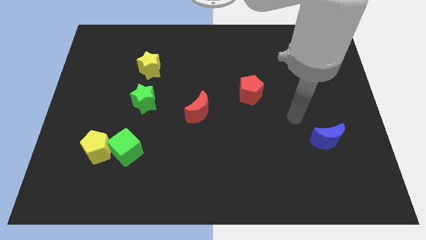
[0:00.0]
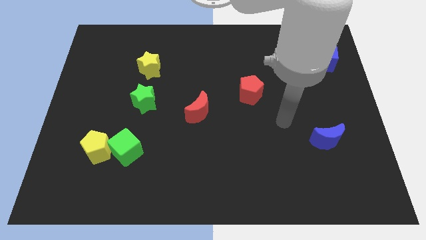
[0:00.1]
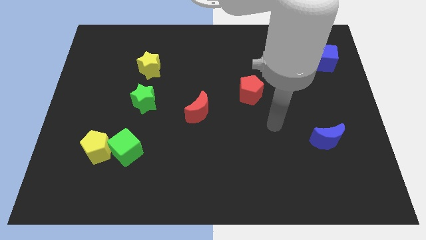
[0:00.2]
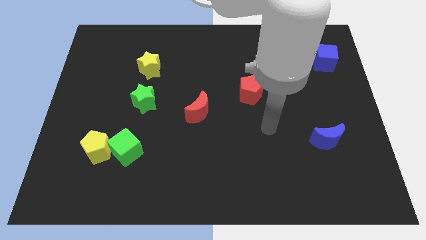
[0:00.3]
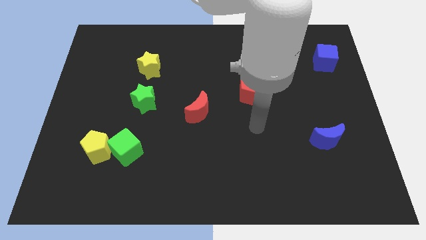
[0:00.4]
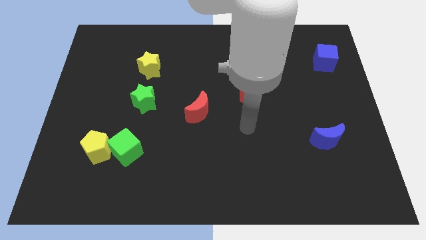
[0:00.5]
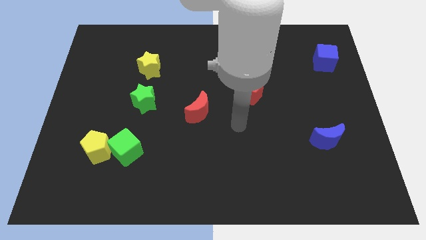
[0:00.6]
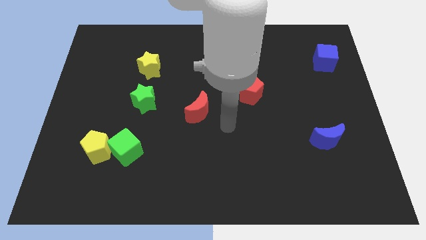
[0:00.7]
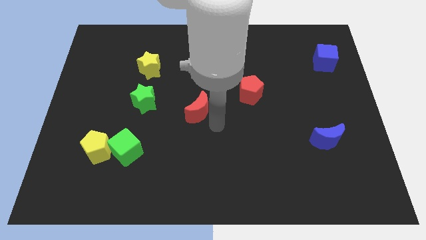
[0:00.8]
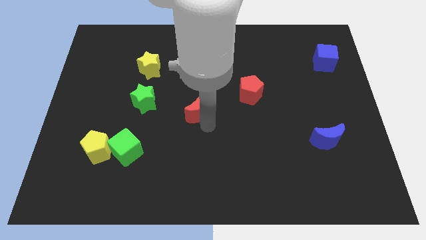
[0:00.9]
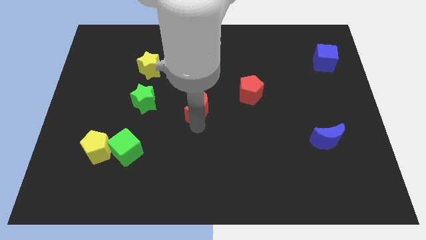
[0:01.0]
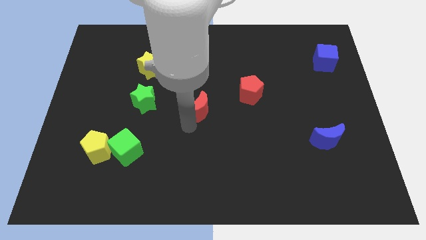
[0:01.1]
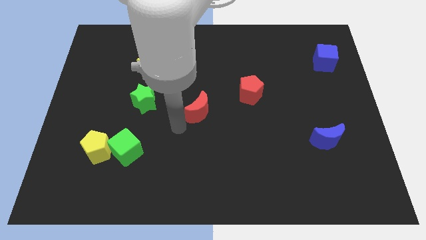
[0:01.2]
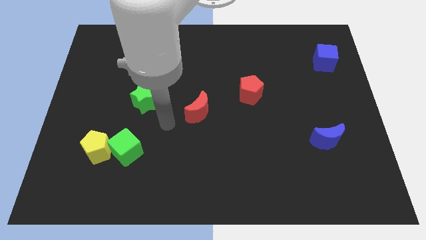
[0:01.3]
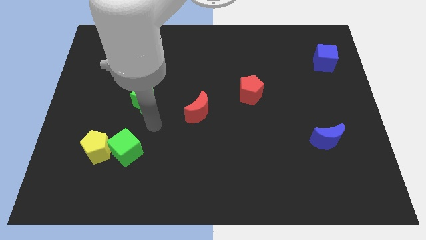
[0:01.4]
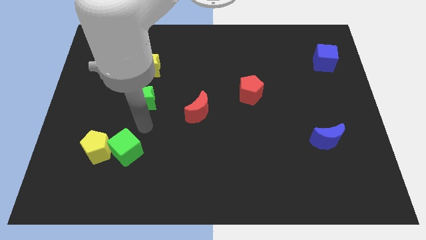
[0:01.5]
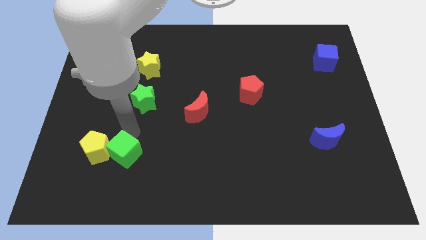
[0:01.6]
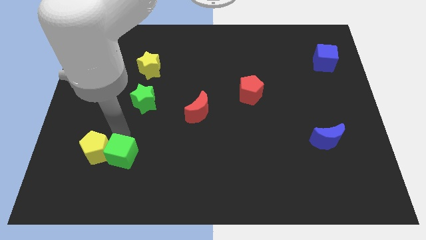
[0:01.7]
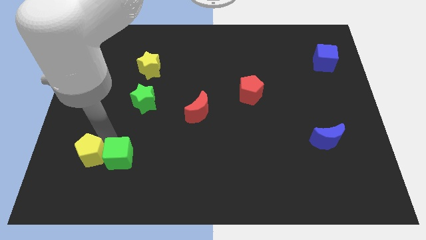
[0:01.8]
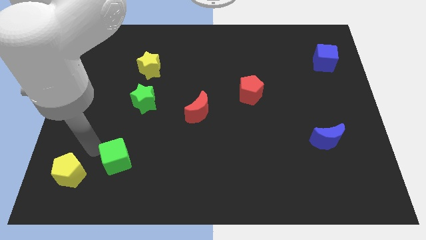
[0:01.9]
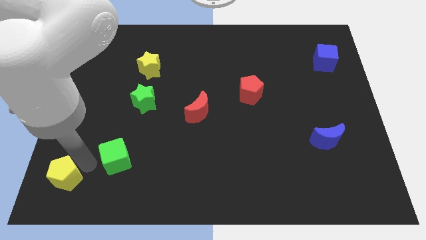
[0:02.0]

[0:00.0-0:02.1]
separate the green cube from the yellow pentagon

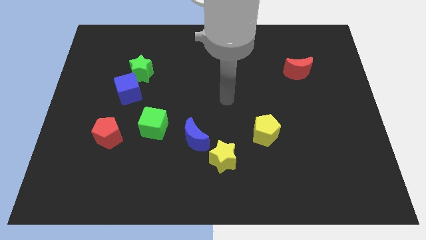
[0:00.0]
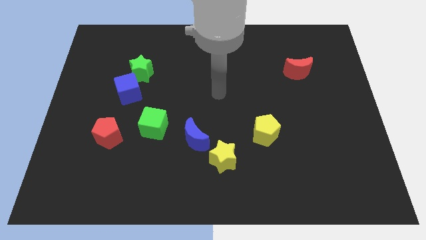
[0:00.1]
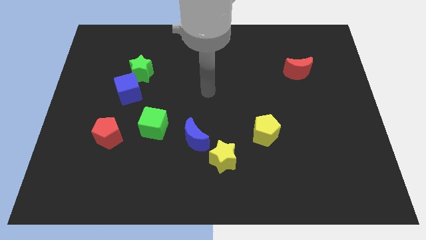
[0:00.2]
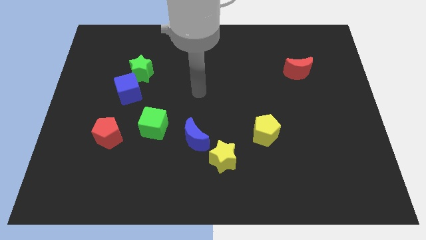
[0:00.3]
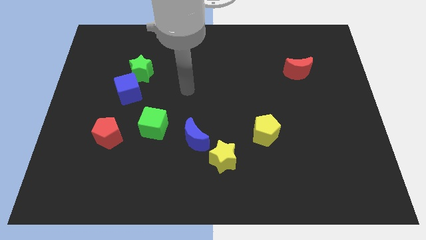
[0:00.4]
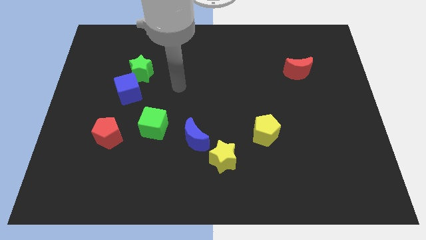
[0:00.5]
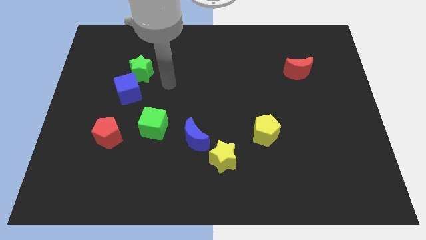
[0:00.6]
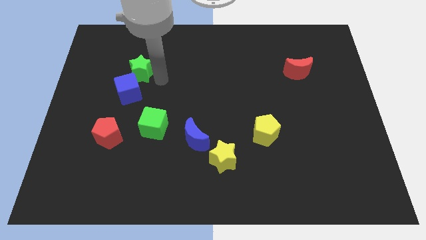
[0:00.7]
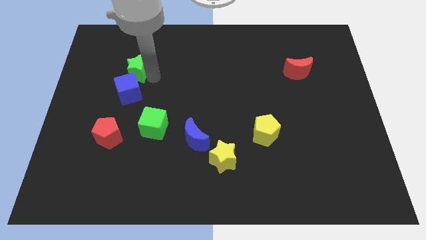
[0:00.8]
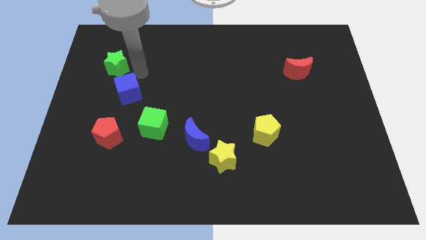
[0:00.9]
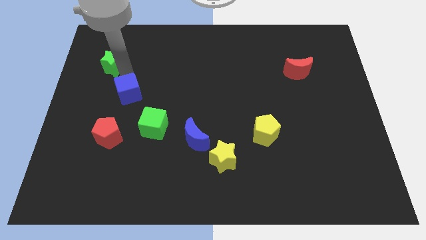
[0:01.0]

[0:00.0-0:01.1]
move the blue cube away from the green star

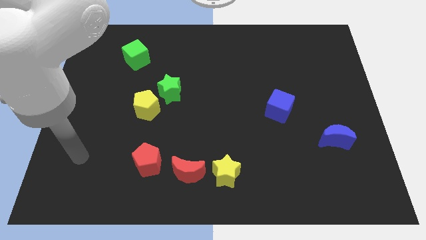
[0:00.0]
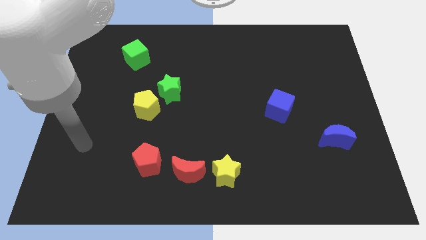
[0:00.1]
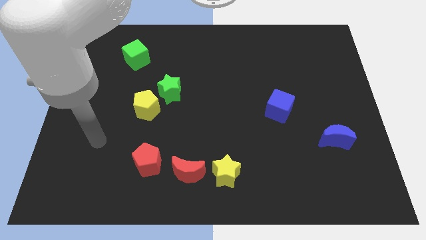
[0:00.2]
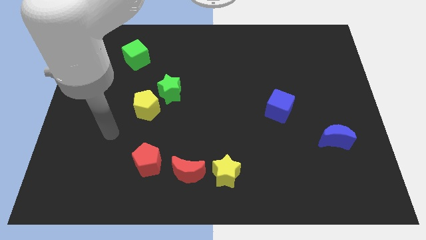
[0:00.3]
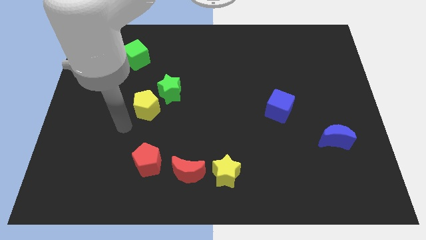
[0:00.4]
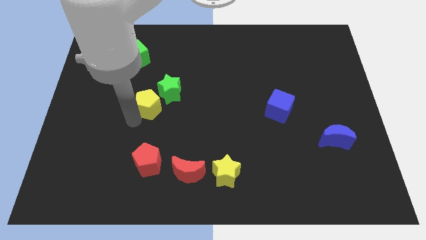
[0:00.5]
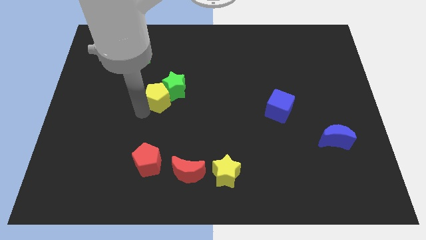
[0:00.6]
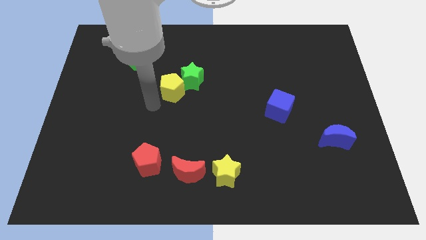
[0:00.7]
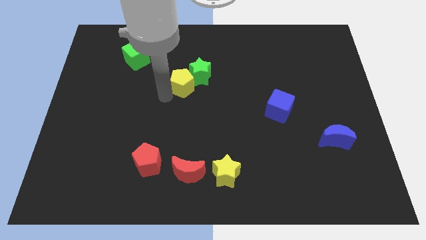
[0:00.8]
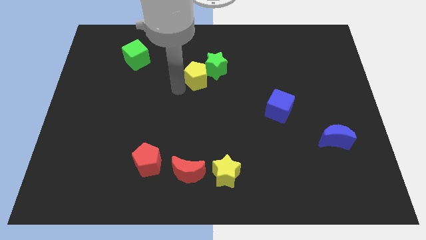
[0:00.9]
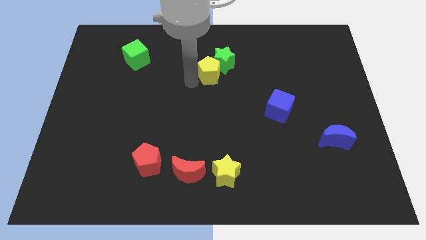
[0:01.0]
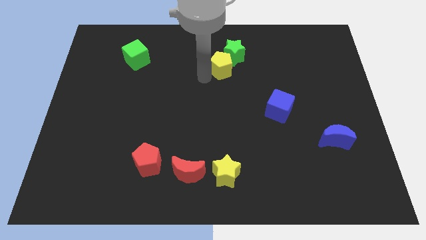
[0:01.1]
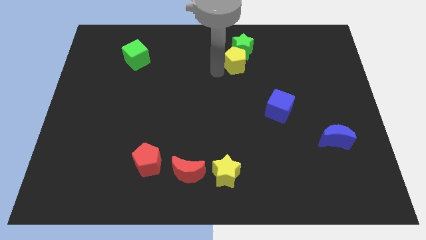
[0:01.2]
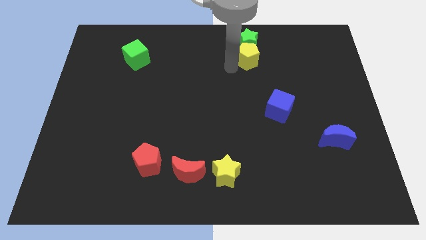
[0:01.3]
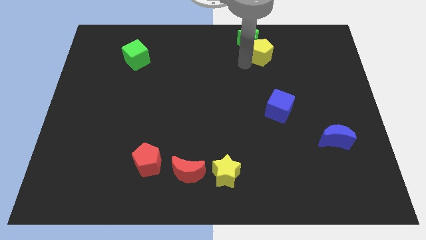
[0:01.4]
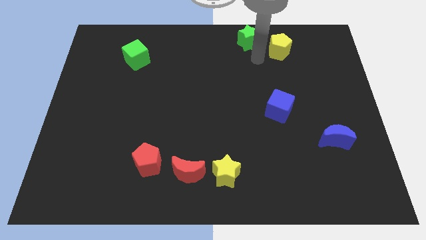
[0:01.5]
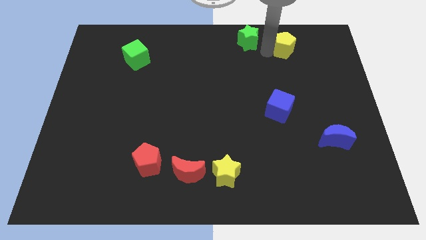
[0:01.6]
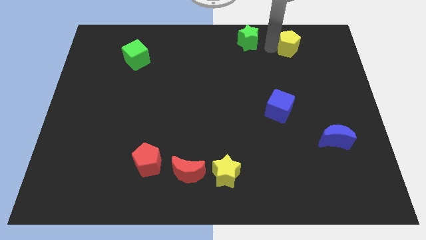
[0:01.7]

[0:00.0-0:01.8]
move the green star away from the yellow pentagon

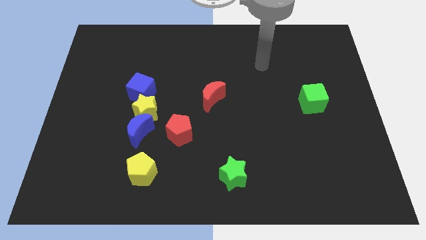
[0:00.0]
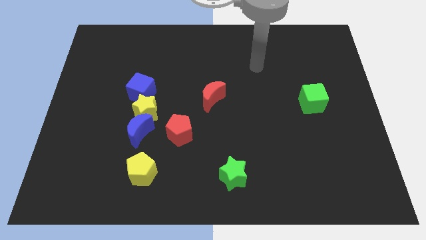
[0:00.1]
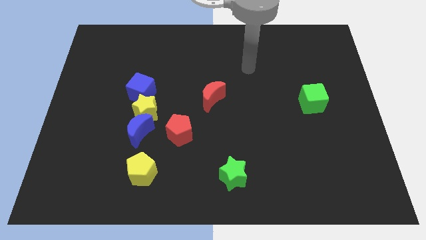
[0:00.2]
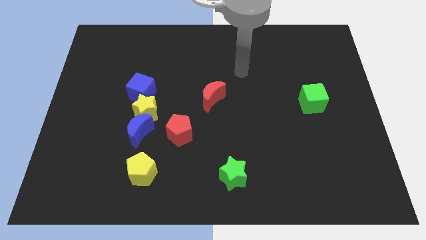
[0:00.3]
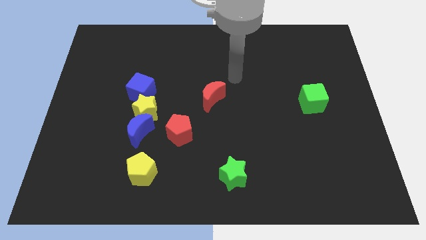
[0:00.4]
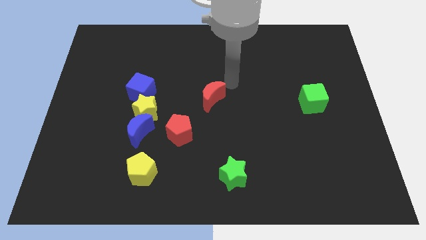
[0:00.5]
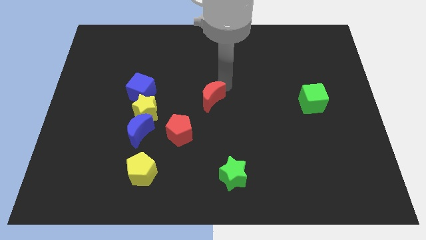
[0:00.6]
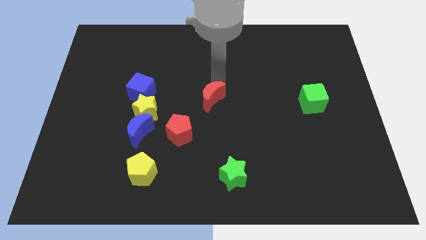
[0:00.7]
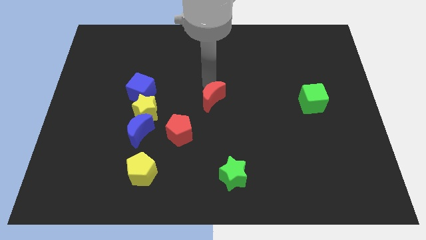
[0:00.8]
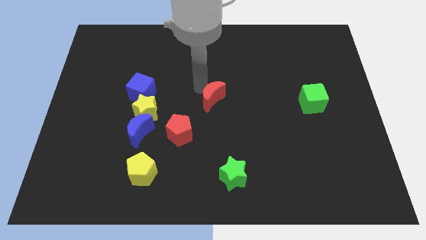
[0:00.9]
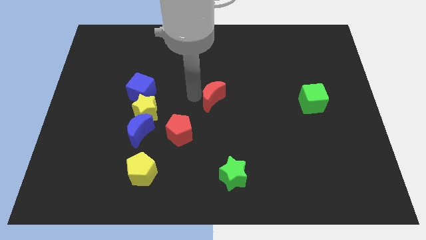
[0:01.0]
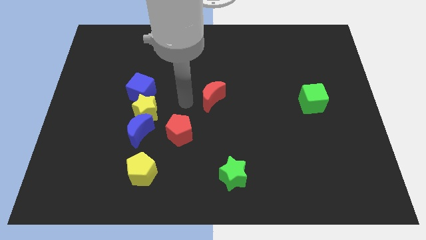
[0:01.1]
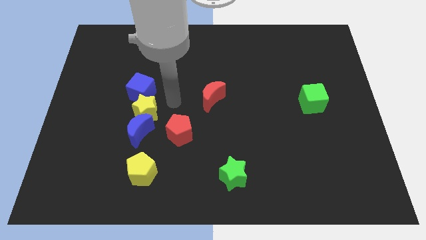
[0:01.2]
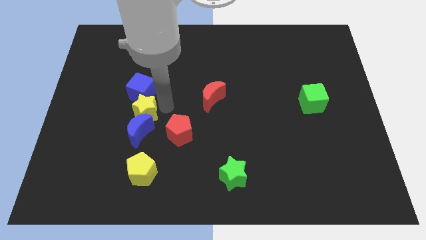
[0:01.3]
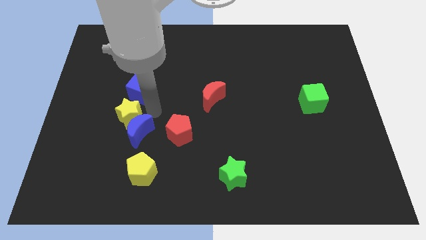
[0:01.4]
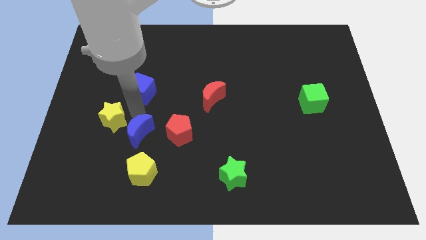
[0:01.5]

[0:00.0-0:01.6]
separate the blue cube from the yellow star

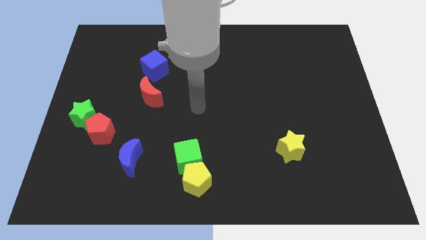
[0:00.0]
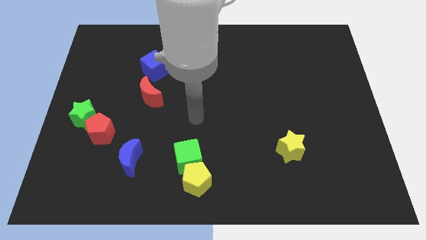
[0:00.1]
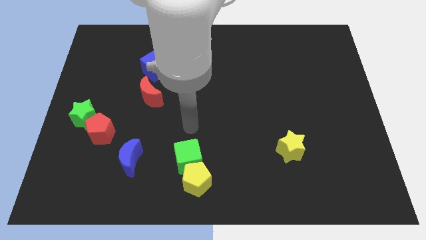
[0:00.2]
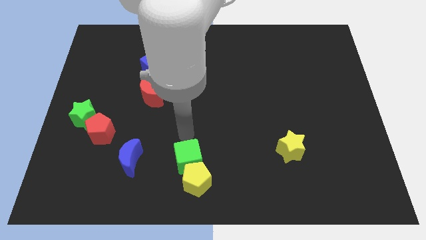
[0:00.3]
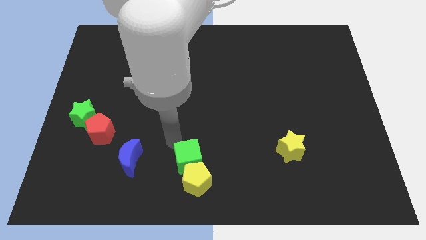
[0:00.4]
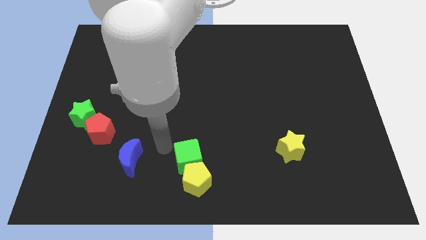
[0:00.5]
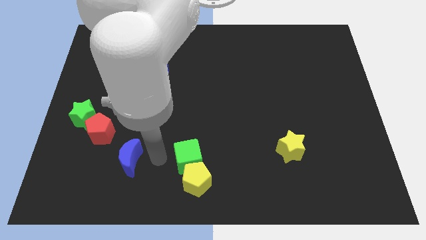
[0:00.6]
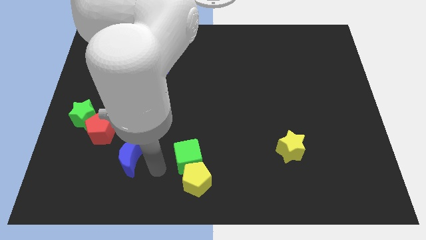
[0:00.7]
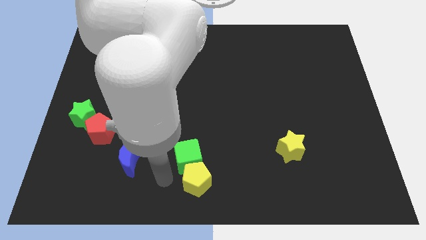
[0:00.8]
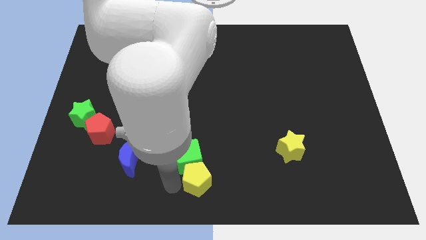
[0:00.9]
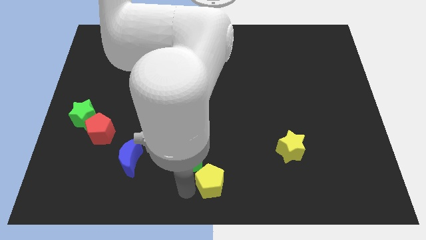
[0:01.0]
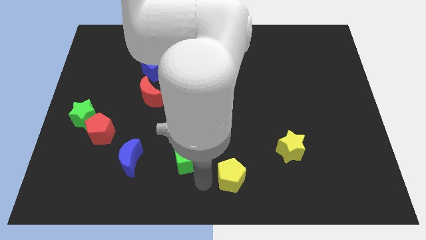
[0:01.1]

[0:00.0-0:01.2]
move the green cube away from the yellow pentagon

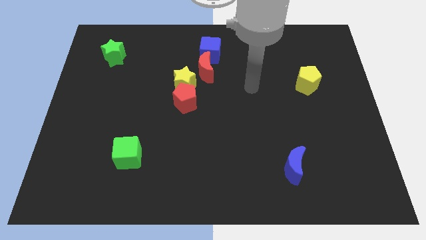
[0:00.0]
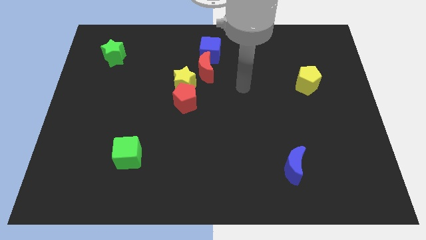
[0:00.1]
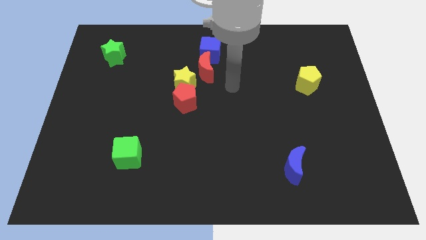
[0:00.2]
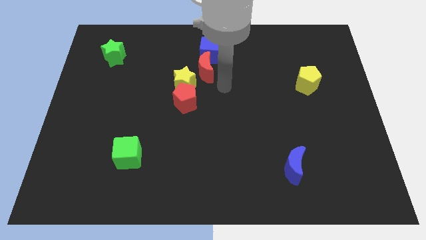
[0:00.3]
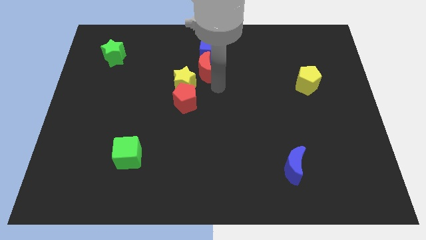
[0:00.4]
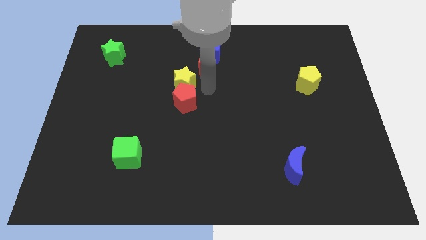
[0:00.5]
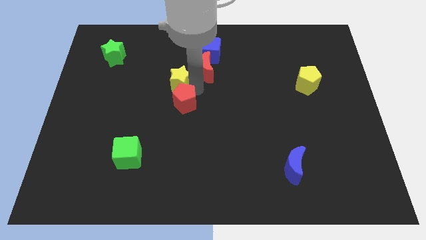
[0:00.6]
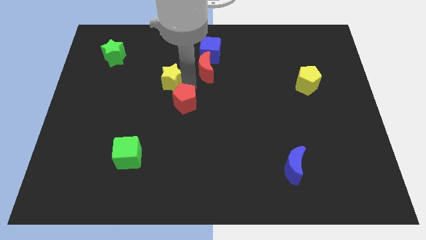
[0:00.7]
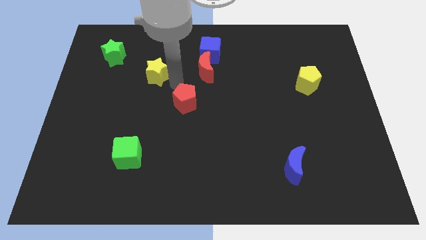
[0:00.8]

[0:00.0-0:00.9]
move the red pentagon away from the yellow star

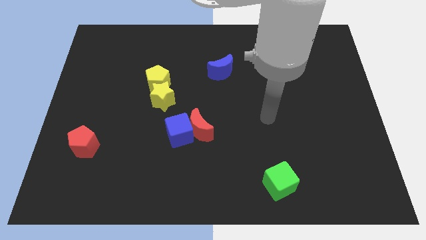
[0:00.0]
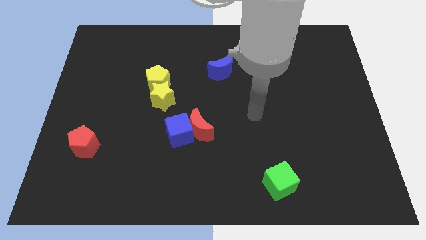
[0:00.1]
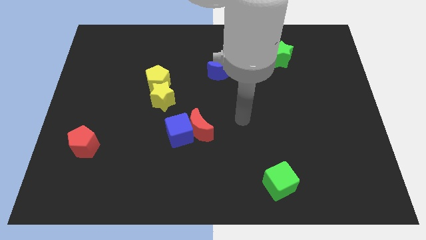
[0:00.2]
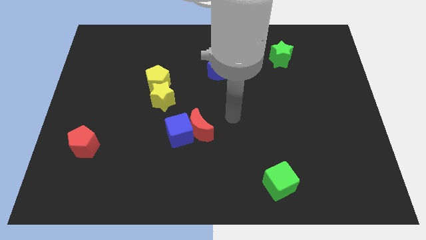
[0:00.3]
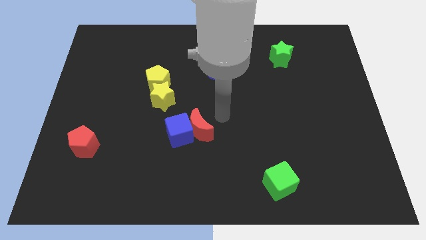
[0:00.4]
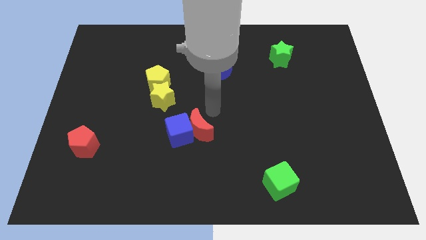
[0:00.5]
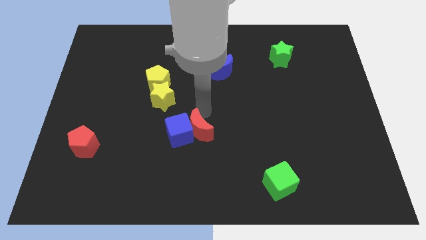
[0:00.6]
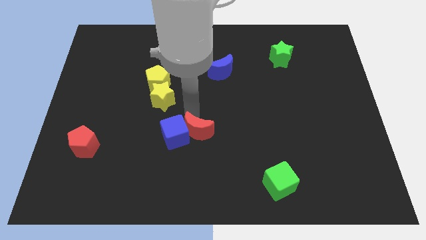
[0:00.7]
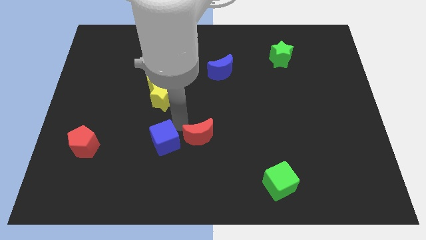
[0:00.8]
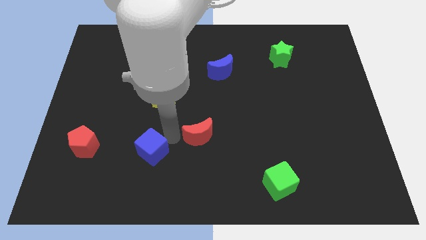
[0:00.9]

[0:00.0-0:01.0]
move the red moon away from the blue cube
